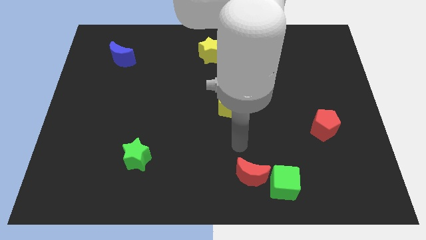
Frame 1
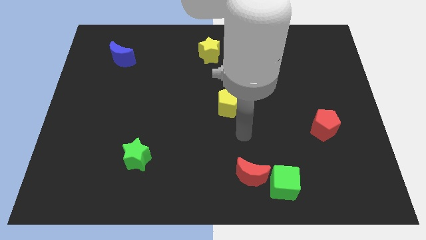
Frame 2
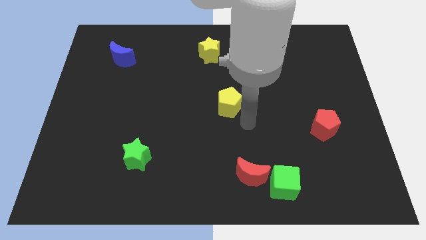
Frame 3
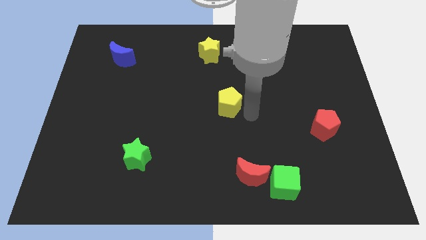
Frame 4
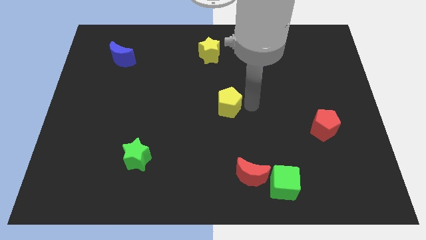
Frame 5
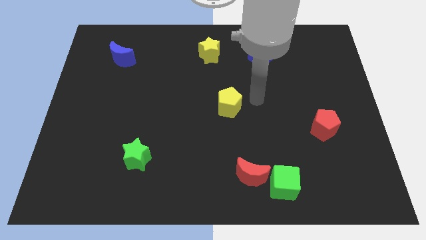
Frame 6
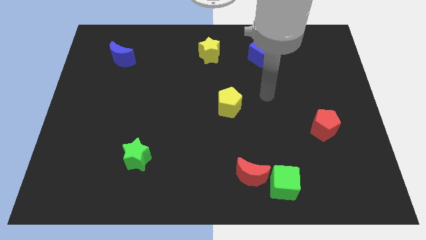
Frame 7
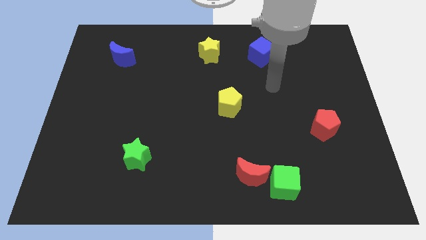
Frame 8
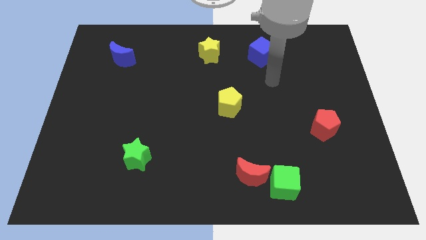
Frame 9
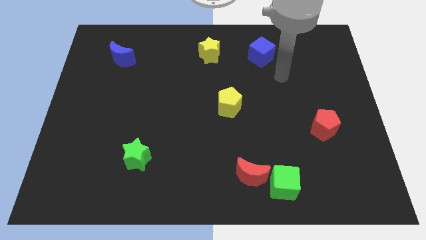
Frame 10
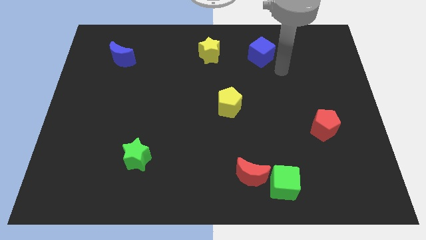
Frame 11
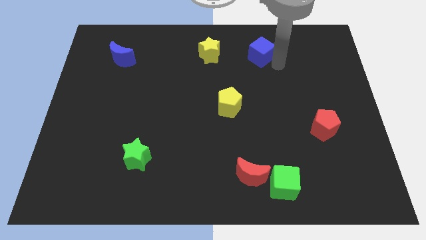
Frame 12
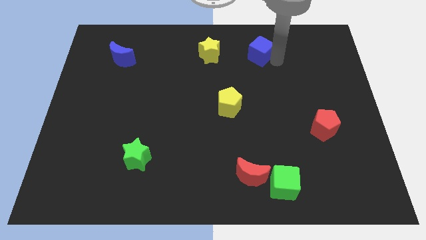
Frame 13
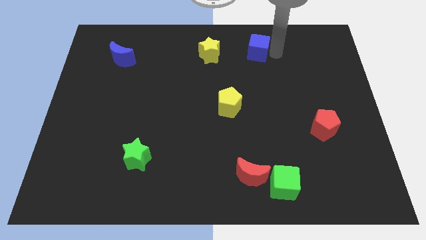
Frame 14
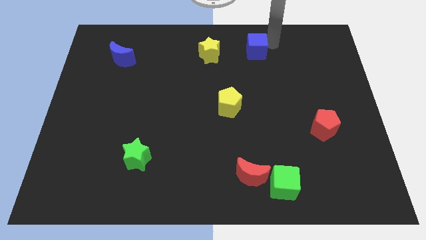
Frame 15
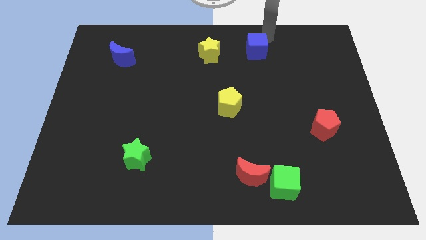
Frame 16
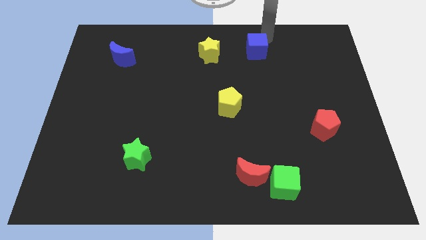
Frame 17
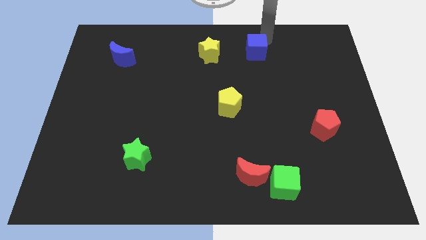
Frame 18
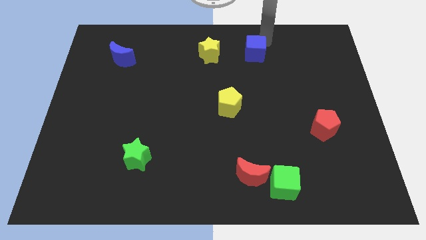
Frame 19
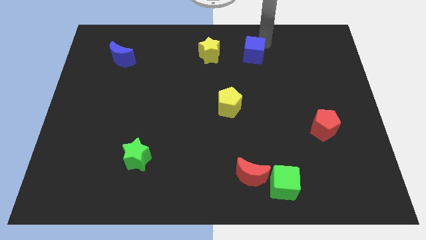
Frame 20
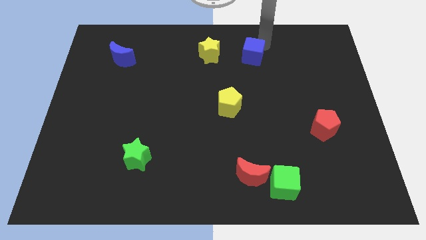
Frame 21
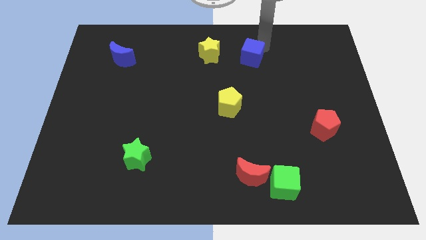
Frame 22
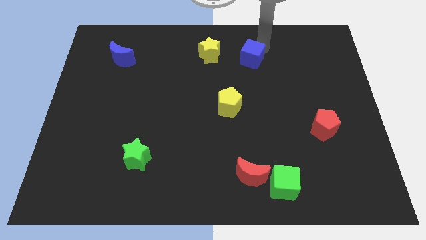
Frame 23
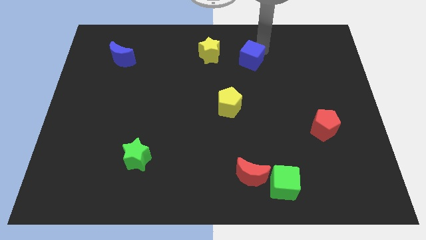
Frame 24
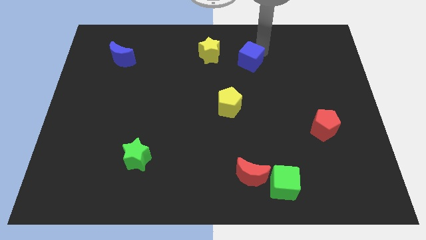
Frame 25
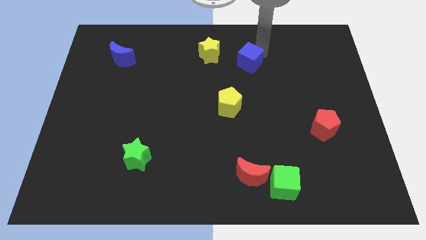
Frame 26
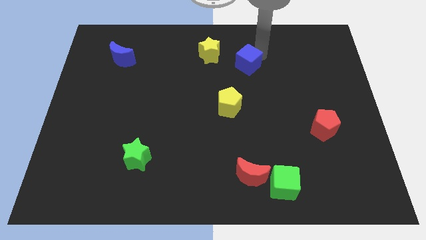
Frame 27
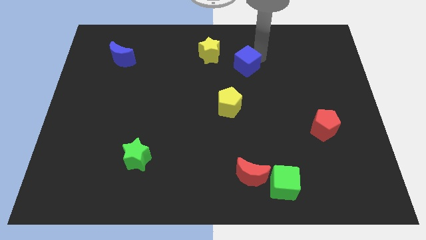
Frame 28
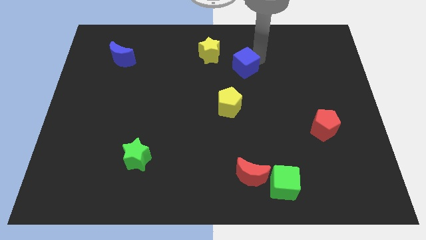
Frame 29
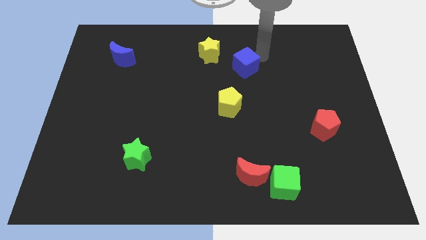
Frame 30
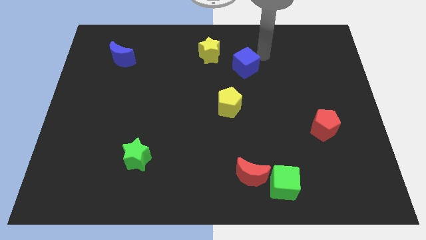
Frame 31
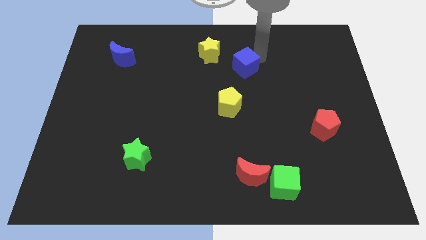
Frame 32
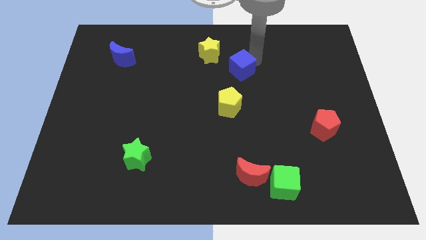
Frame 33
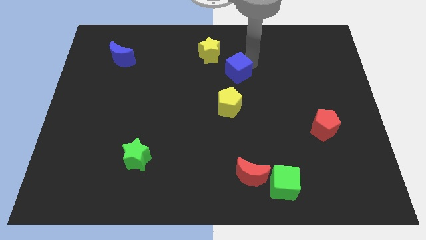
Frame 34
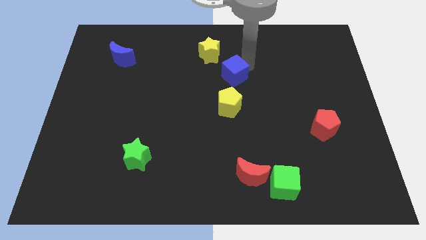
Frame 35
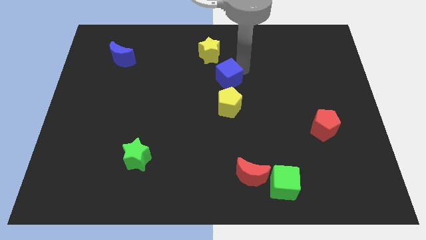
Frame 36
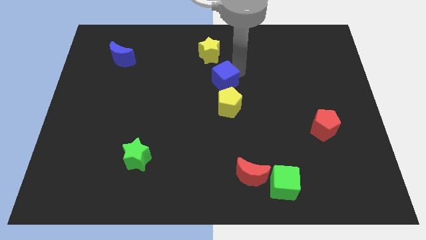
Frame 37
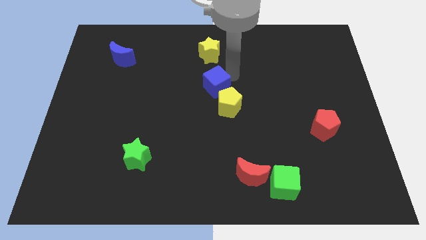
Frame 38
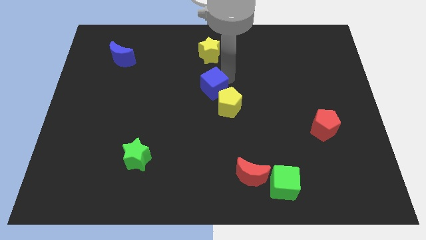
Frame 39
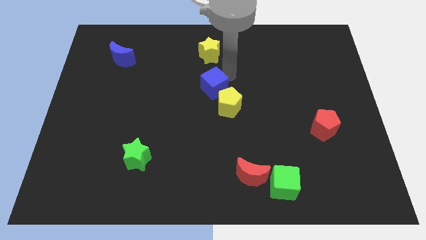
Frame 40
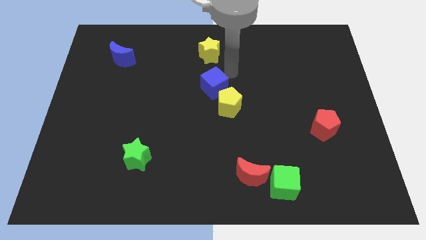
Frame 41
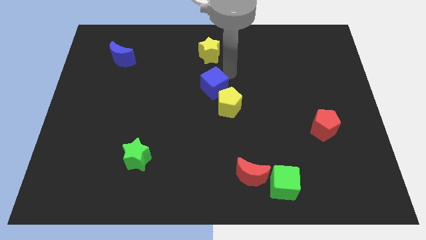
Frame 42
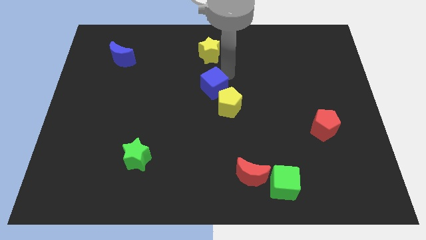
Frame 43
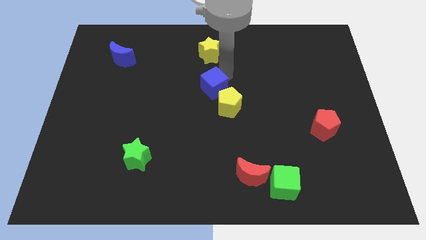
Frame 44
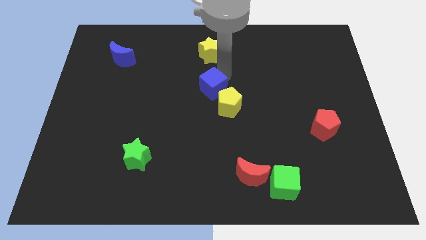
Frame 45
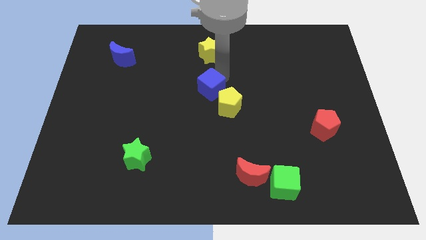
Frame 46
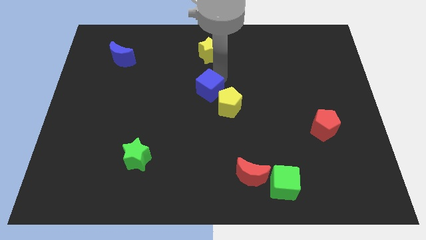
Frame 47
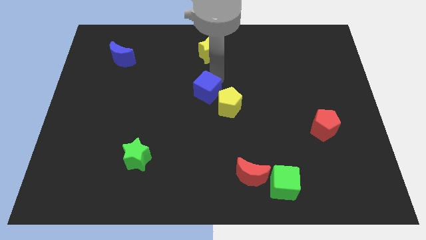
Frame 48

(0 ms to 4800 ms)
push the blue cube left of the yellow pentagon

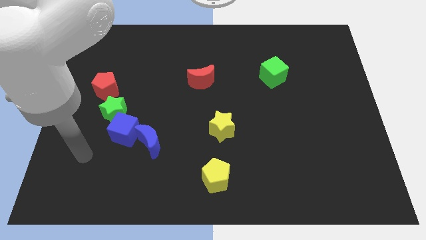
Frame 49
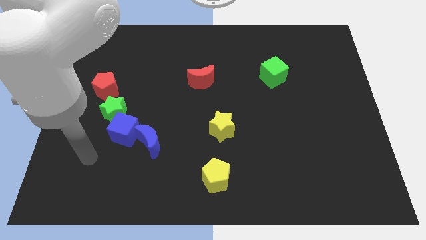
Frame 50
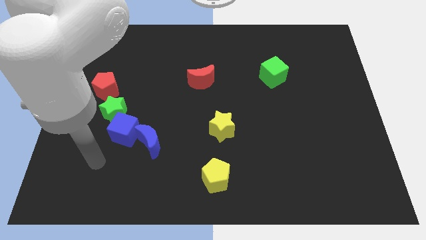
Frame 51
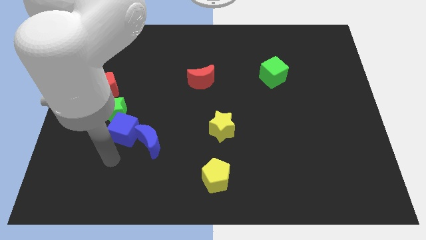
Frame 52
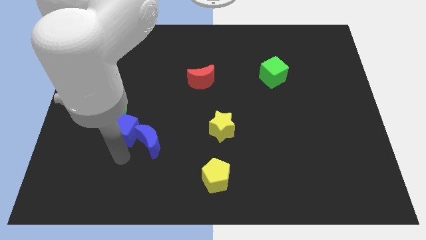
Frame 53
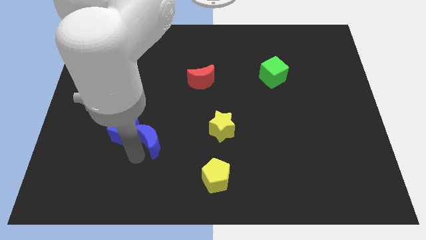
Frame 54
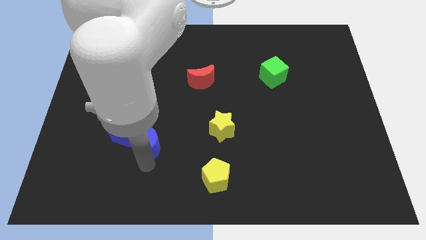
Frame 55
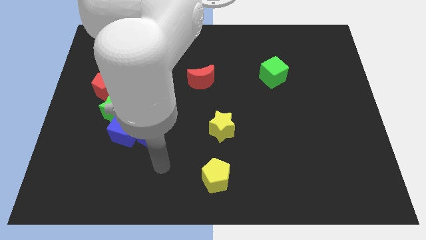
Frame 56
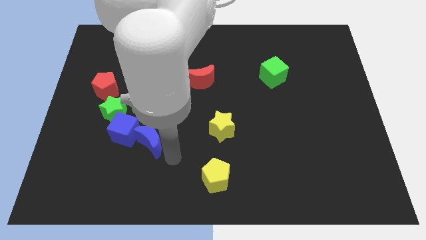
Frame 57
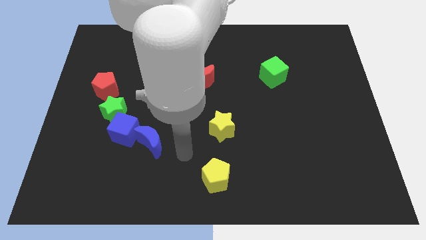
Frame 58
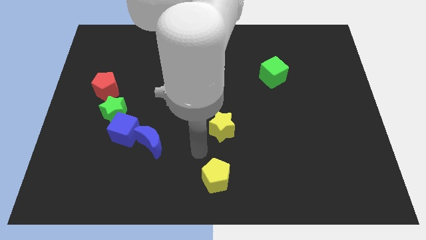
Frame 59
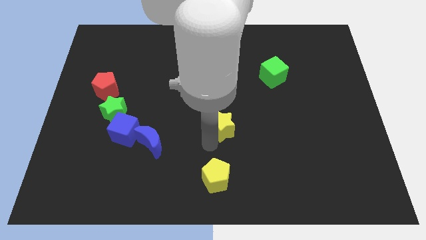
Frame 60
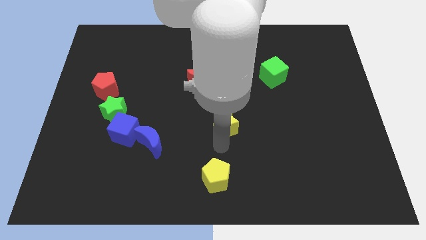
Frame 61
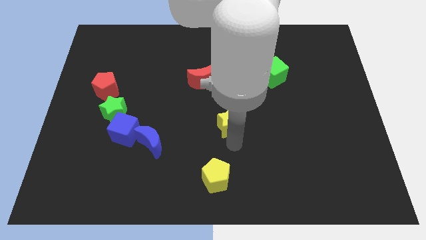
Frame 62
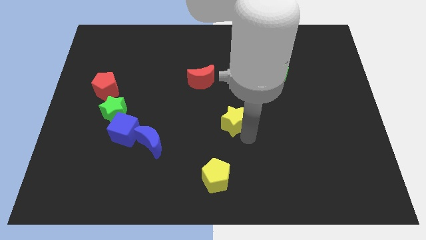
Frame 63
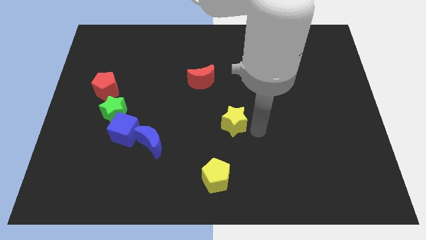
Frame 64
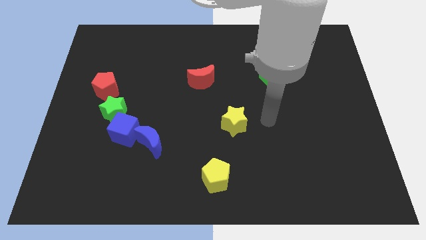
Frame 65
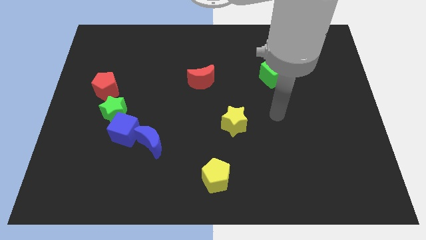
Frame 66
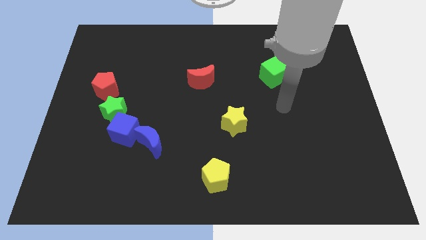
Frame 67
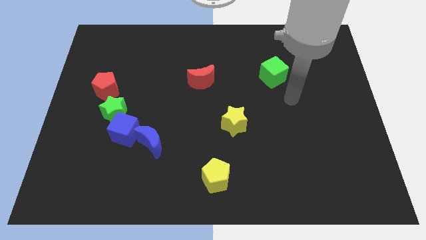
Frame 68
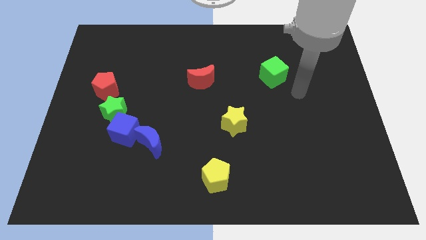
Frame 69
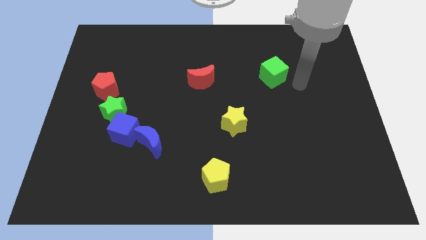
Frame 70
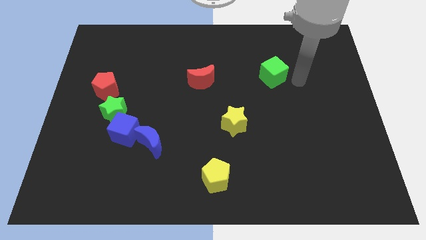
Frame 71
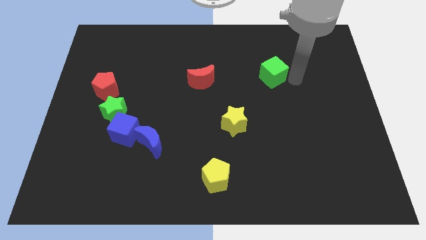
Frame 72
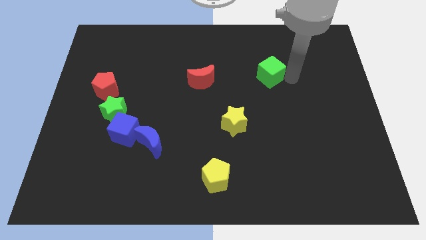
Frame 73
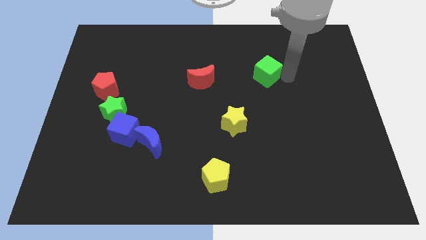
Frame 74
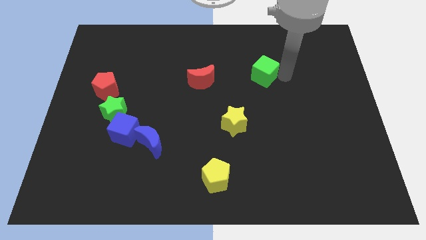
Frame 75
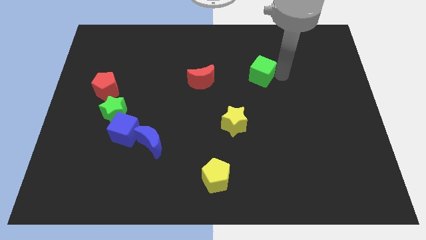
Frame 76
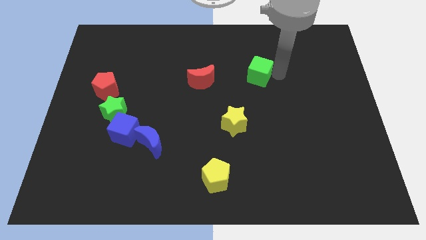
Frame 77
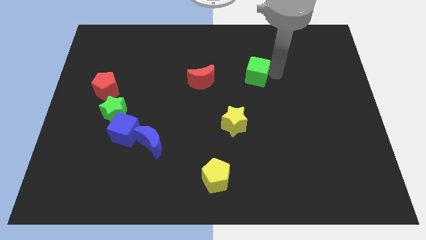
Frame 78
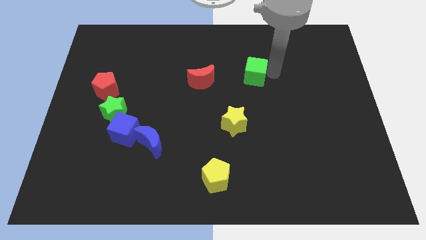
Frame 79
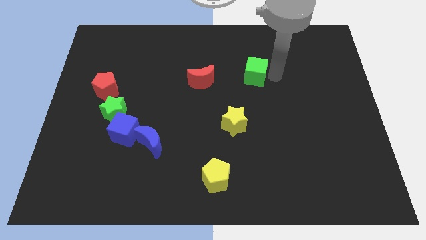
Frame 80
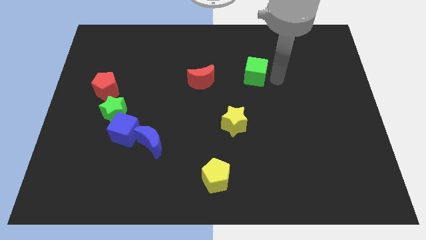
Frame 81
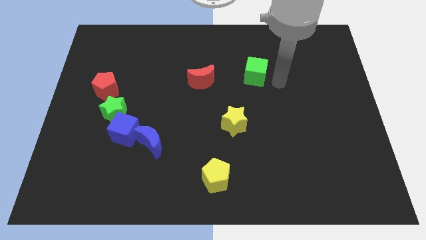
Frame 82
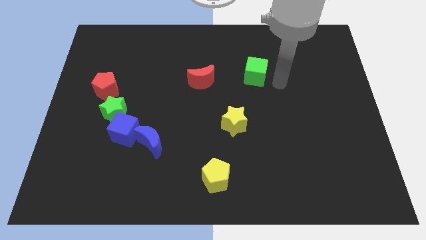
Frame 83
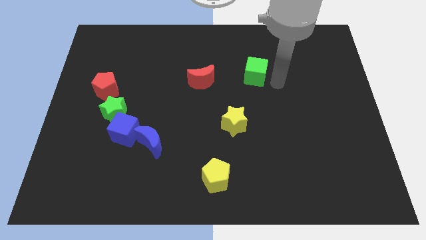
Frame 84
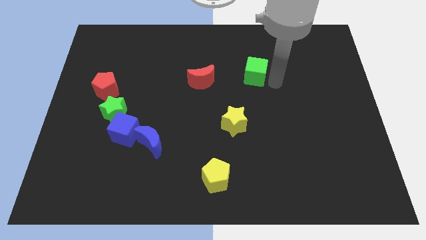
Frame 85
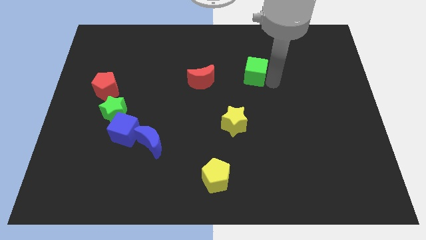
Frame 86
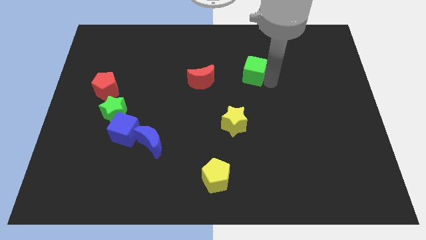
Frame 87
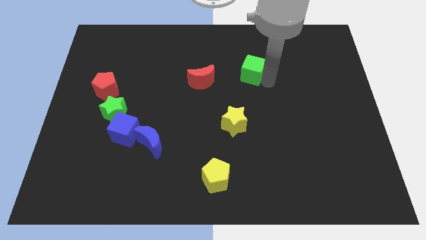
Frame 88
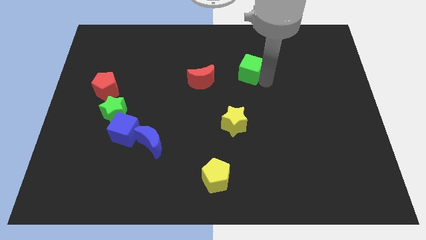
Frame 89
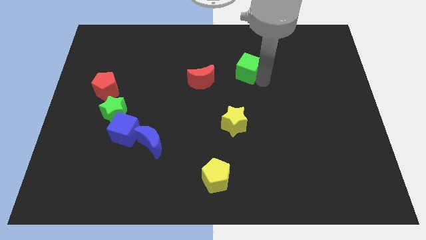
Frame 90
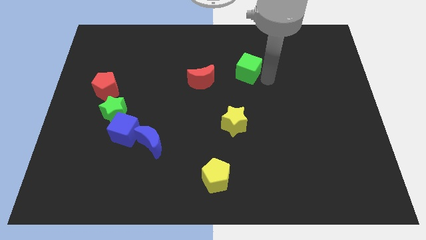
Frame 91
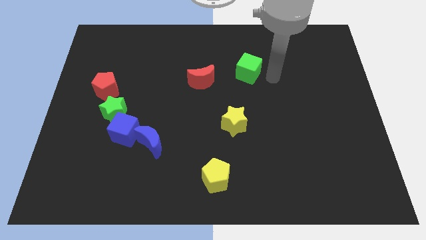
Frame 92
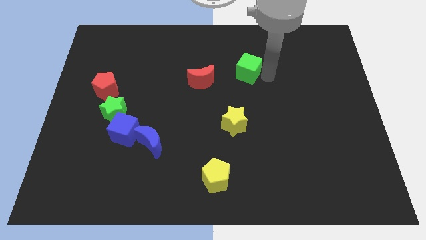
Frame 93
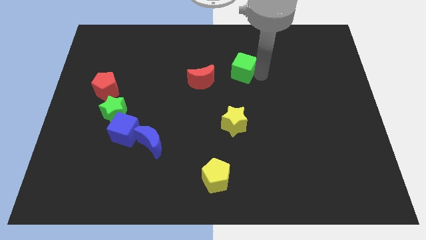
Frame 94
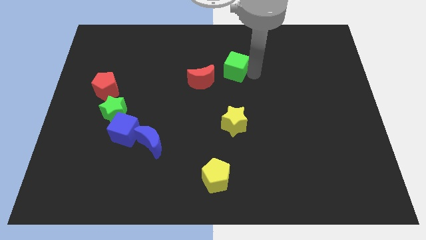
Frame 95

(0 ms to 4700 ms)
slide the green cube to the top right of the red moon
